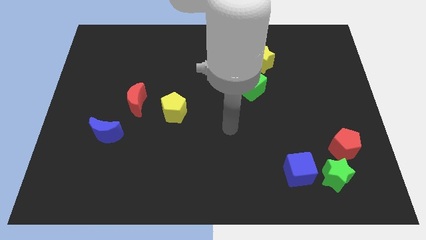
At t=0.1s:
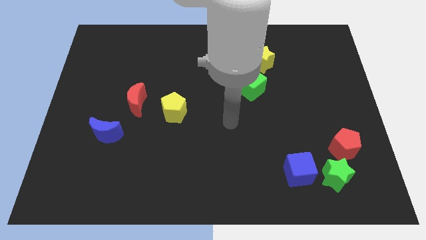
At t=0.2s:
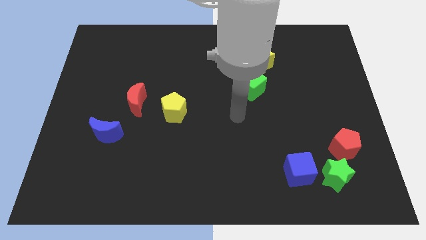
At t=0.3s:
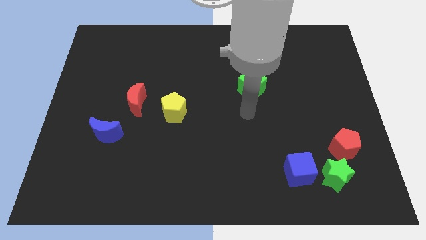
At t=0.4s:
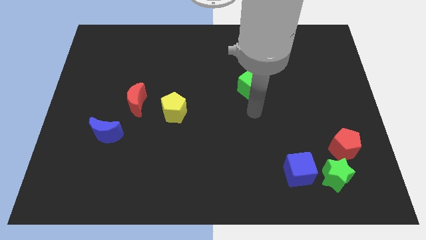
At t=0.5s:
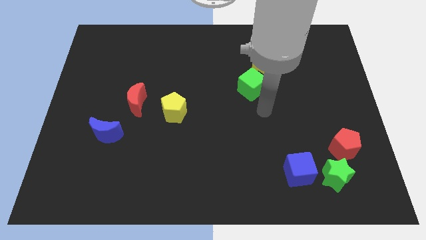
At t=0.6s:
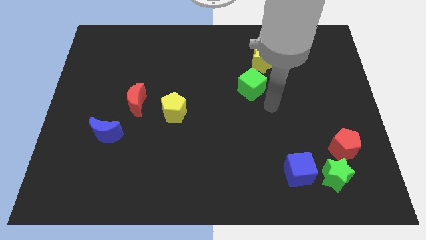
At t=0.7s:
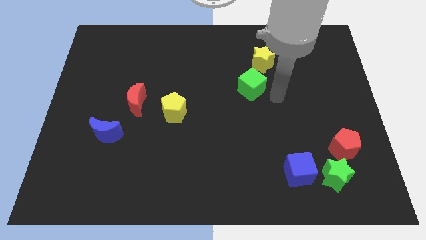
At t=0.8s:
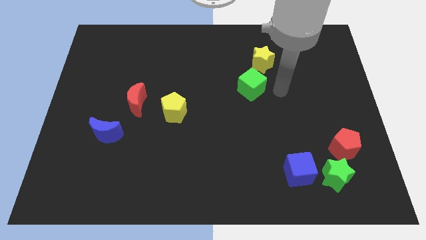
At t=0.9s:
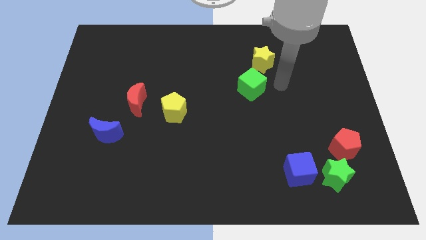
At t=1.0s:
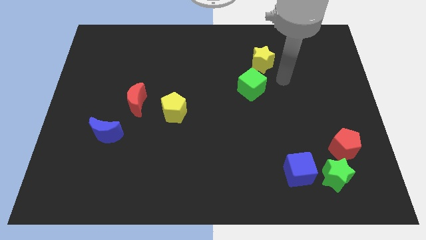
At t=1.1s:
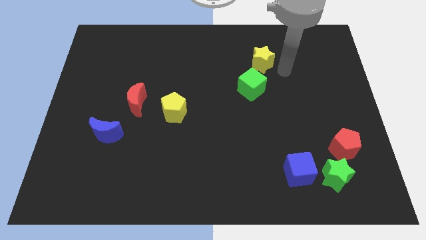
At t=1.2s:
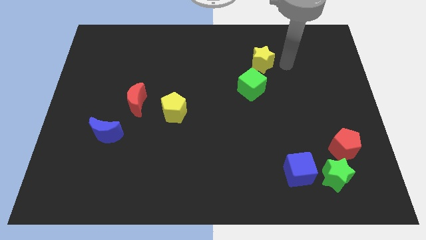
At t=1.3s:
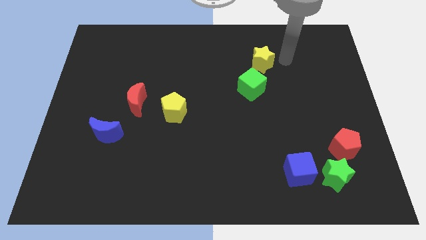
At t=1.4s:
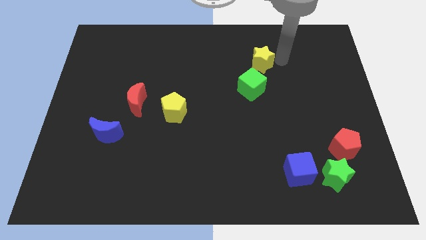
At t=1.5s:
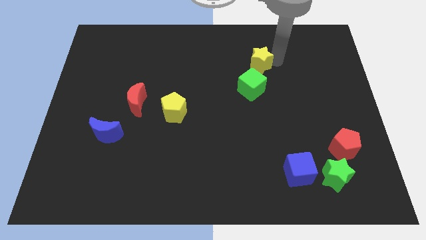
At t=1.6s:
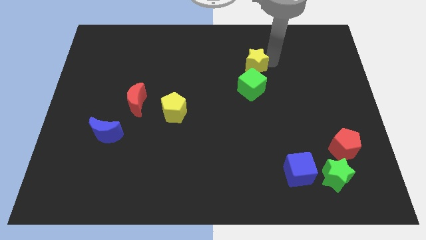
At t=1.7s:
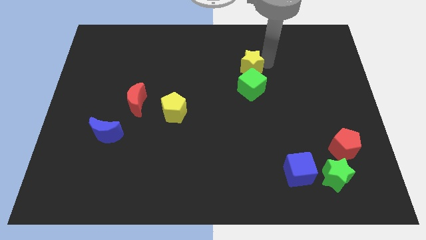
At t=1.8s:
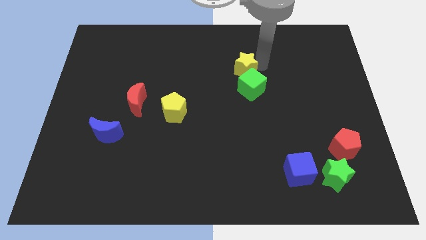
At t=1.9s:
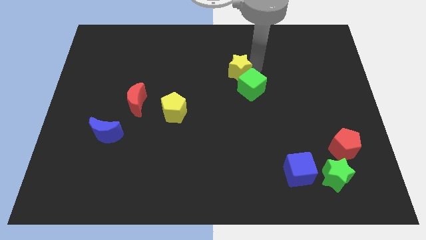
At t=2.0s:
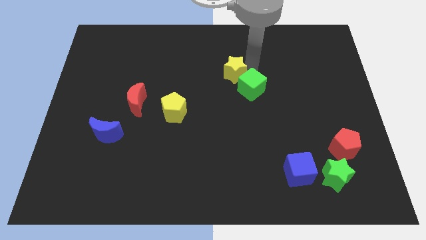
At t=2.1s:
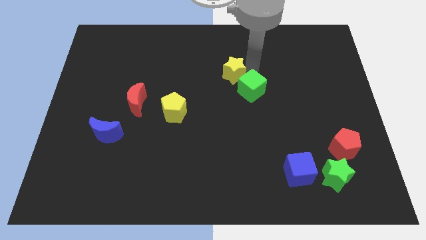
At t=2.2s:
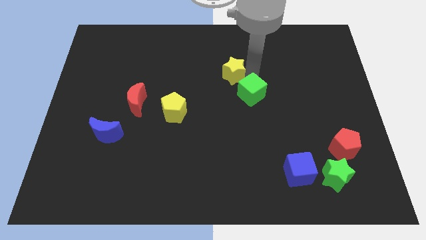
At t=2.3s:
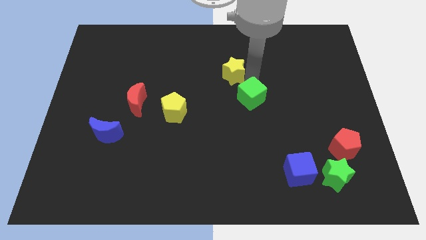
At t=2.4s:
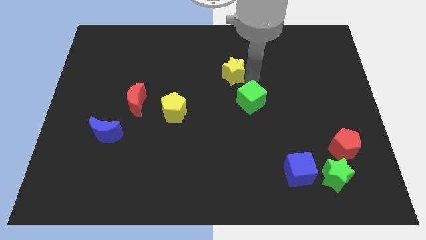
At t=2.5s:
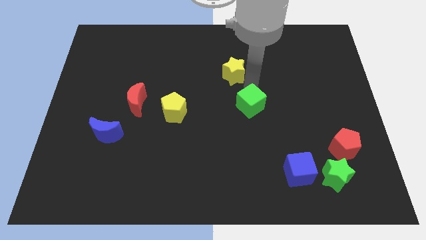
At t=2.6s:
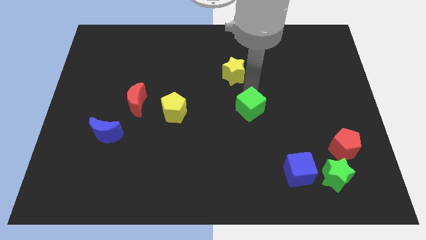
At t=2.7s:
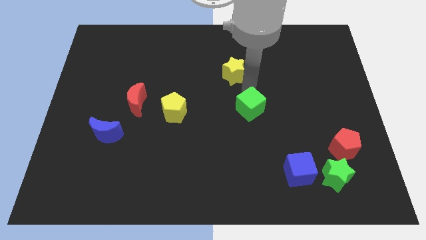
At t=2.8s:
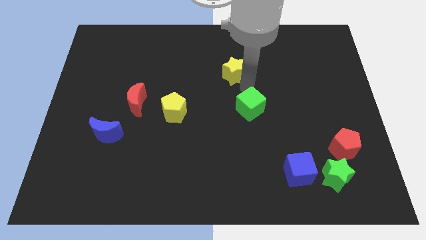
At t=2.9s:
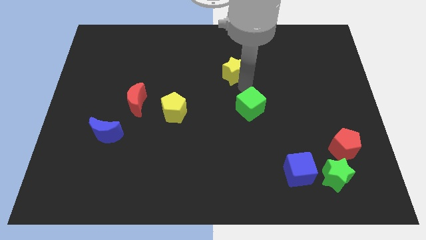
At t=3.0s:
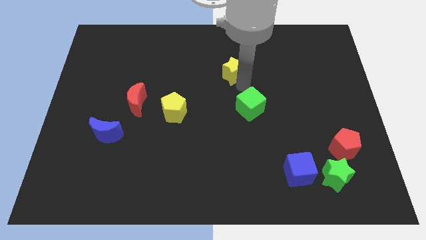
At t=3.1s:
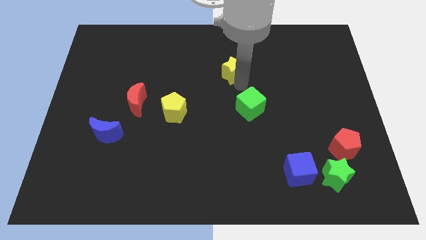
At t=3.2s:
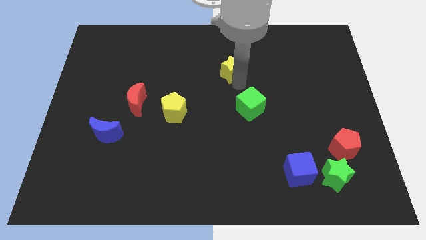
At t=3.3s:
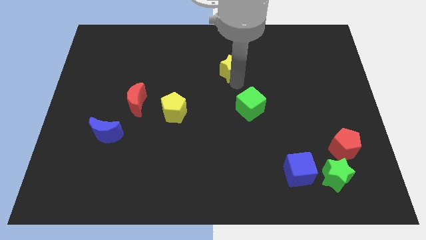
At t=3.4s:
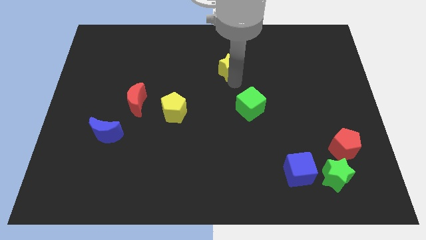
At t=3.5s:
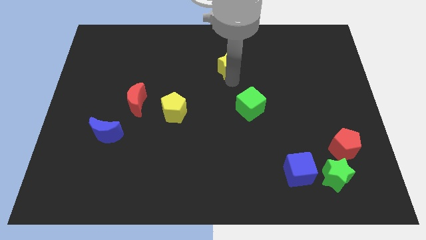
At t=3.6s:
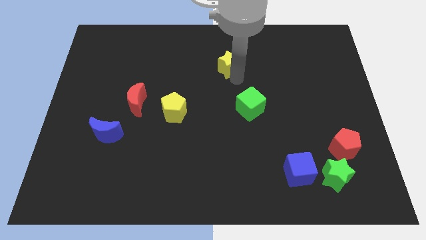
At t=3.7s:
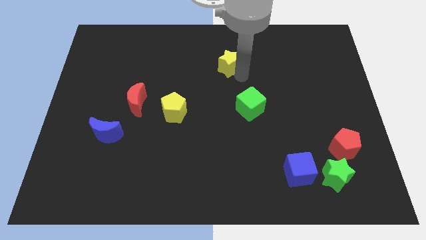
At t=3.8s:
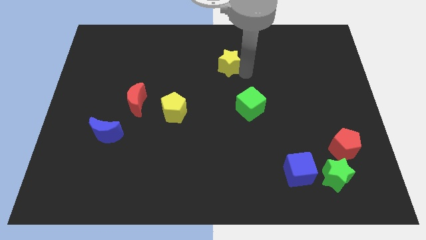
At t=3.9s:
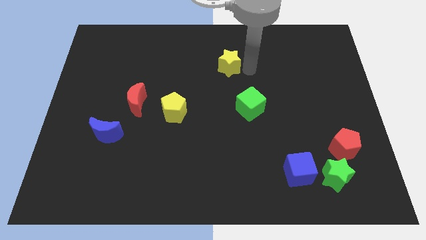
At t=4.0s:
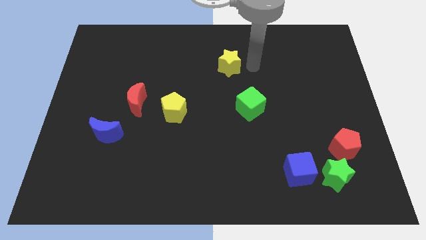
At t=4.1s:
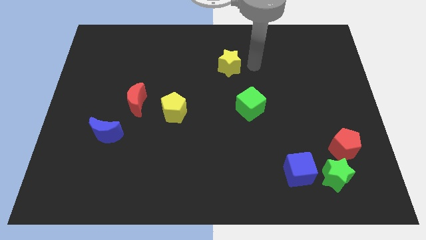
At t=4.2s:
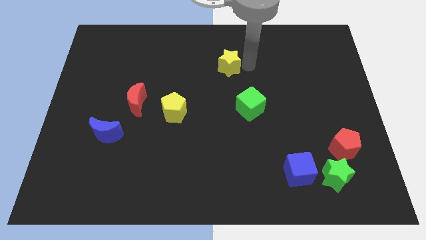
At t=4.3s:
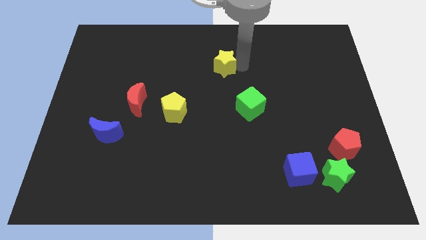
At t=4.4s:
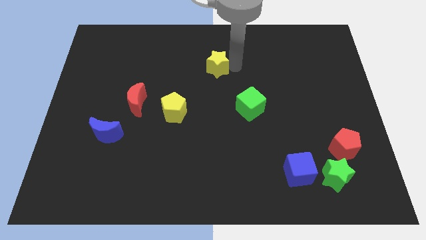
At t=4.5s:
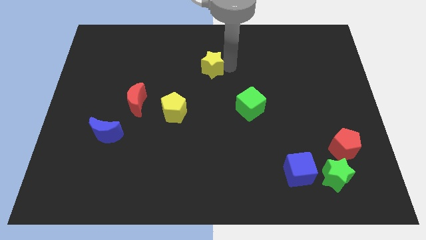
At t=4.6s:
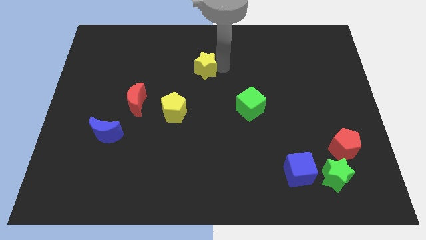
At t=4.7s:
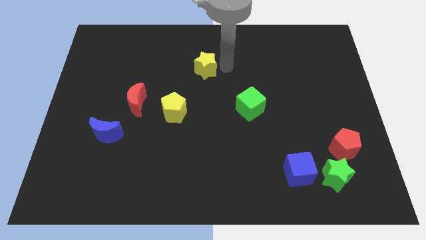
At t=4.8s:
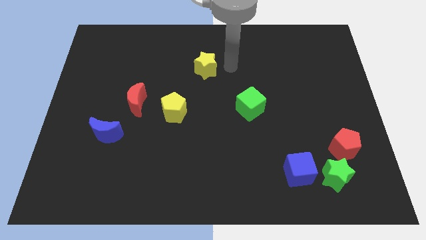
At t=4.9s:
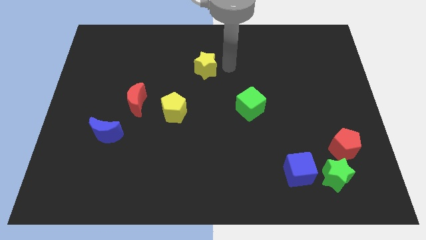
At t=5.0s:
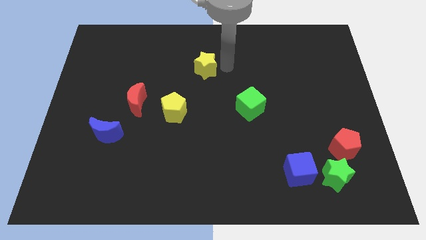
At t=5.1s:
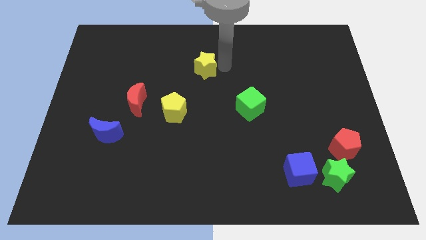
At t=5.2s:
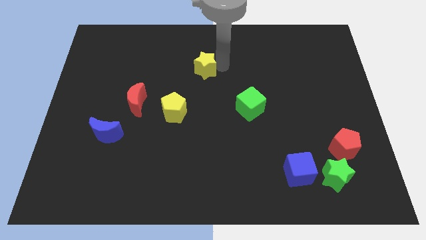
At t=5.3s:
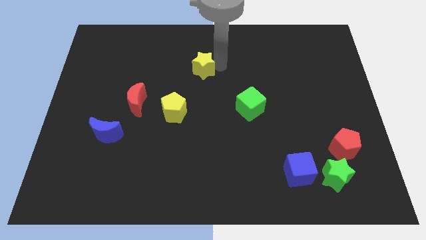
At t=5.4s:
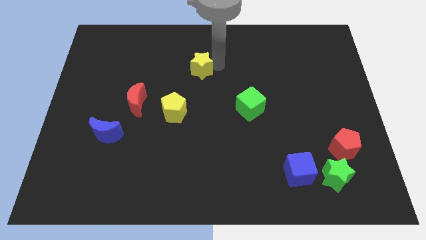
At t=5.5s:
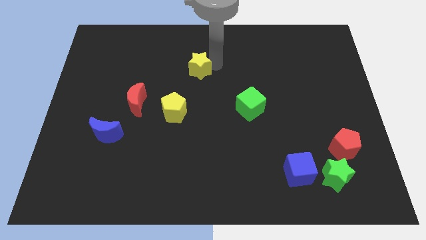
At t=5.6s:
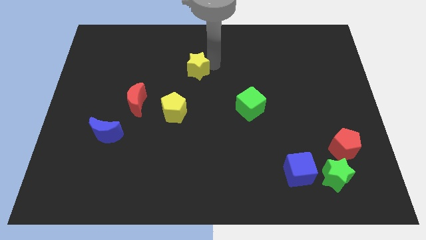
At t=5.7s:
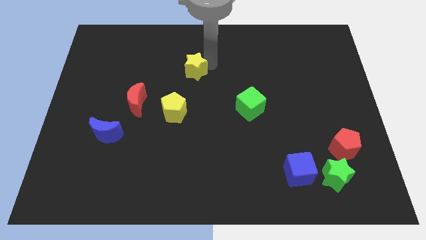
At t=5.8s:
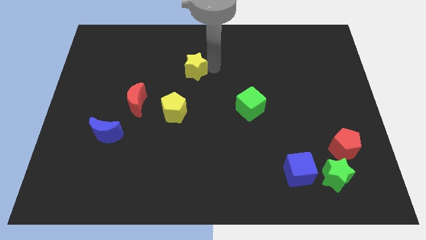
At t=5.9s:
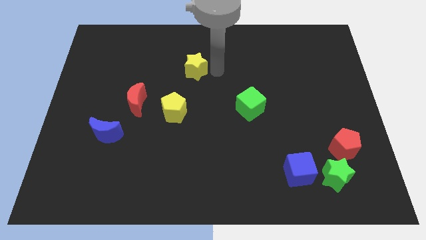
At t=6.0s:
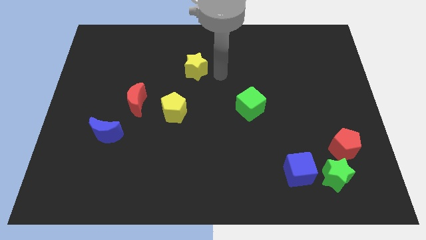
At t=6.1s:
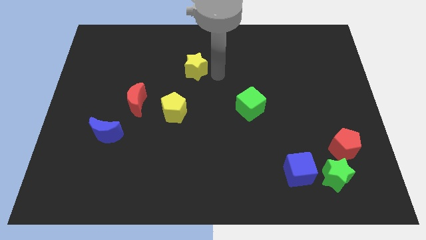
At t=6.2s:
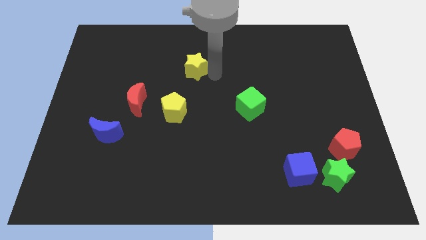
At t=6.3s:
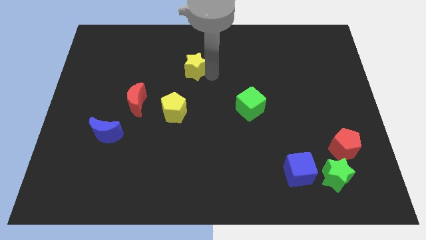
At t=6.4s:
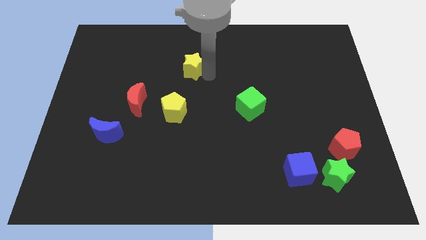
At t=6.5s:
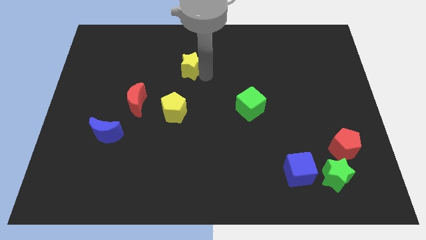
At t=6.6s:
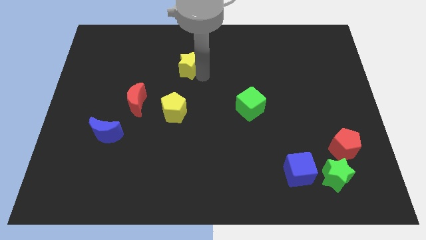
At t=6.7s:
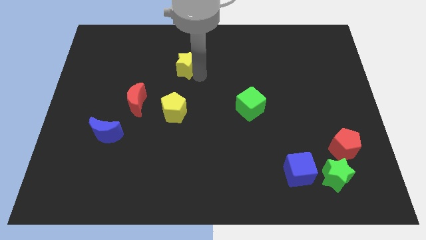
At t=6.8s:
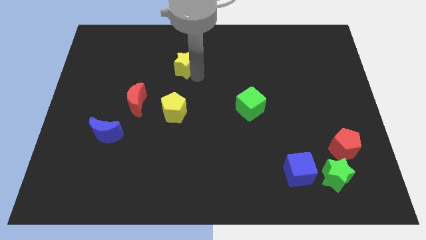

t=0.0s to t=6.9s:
move the yellow star left

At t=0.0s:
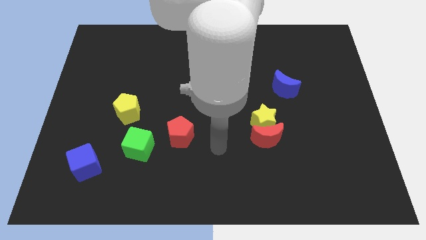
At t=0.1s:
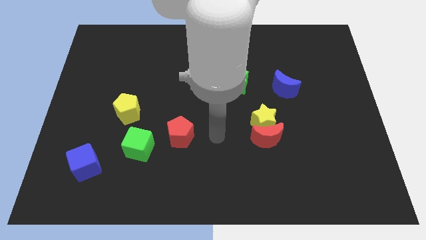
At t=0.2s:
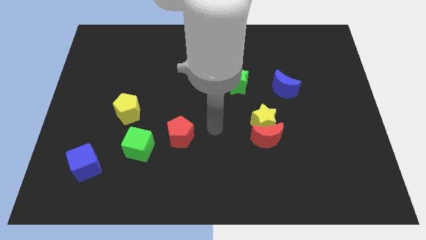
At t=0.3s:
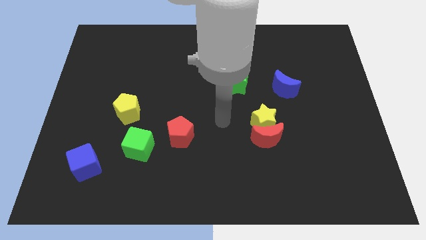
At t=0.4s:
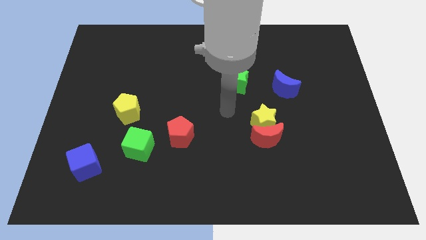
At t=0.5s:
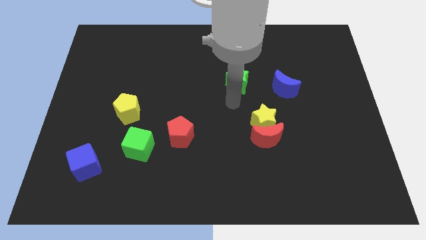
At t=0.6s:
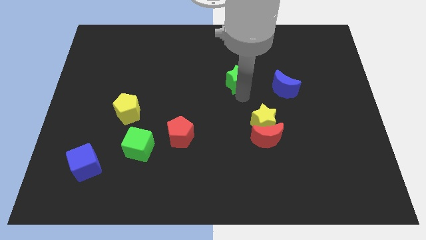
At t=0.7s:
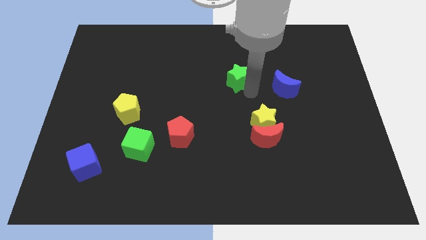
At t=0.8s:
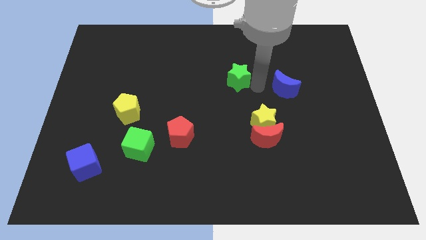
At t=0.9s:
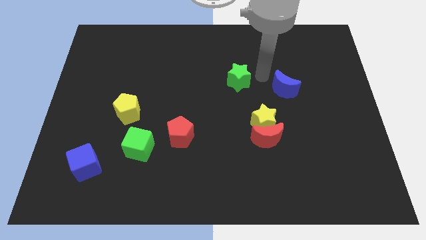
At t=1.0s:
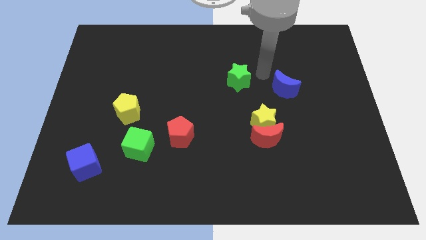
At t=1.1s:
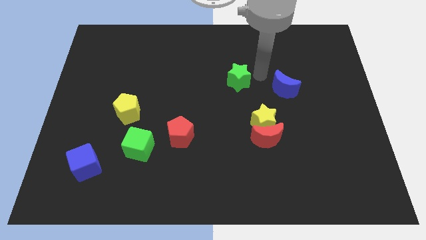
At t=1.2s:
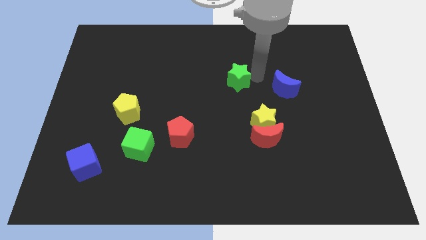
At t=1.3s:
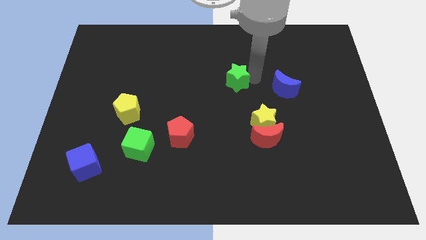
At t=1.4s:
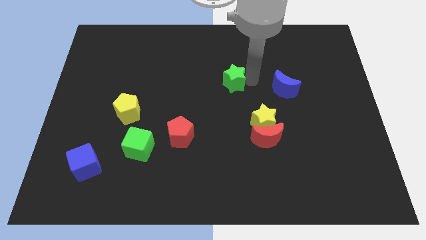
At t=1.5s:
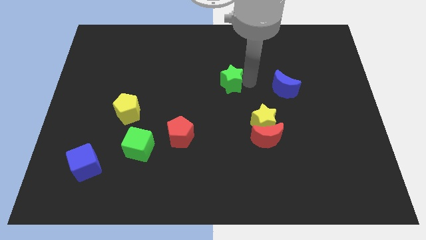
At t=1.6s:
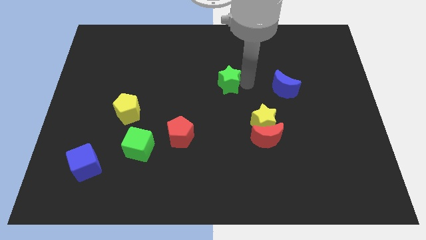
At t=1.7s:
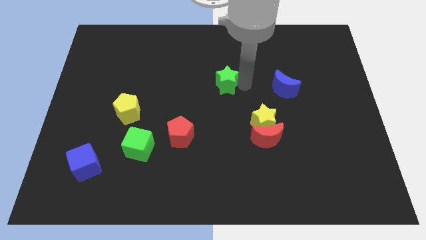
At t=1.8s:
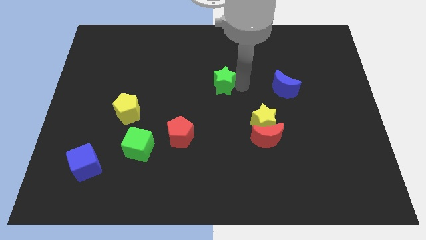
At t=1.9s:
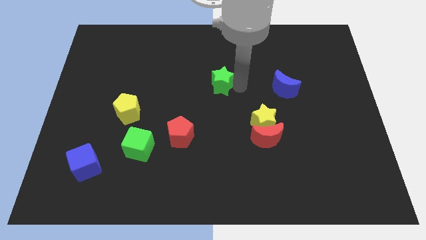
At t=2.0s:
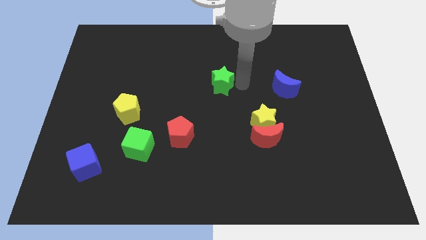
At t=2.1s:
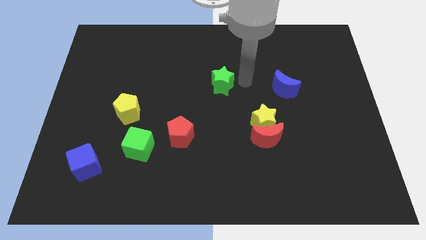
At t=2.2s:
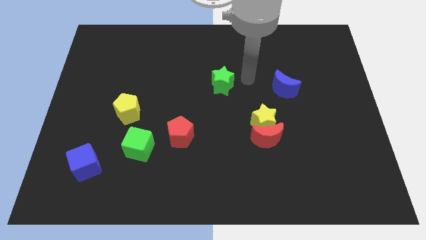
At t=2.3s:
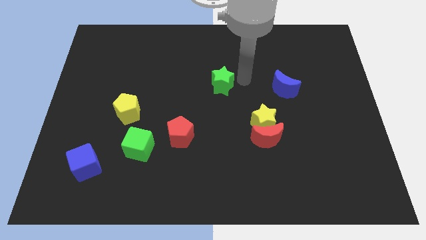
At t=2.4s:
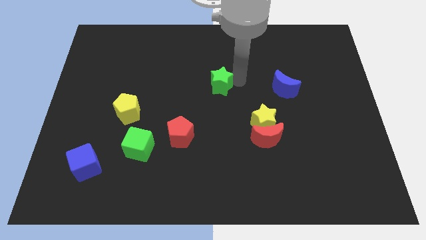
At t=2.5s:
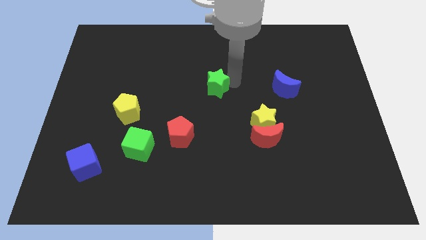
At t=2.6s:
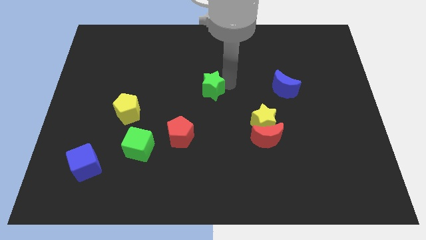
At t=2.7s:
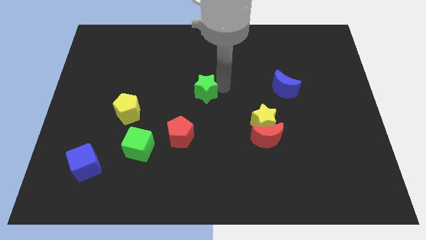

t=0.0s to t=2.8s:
slightly move the green star left
